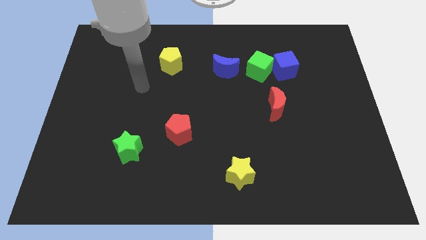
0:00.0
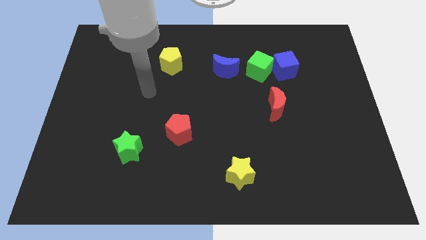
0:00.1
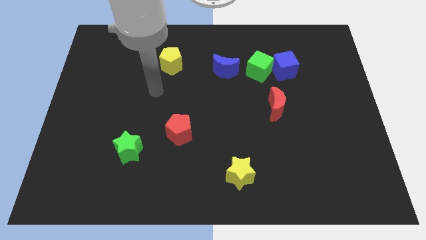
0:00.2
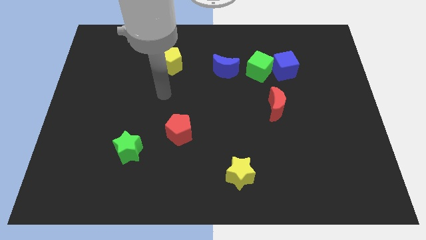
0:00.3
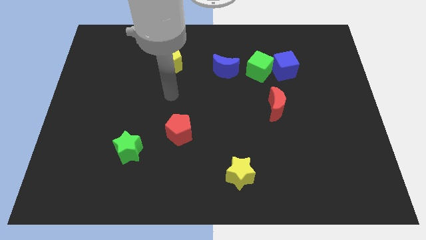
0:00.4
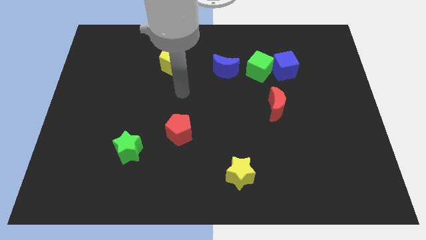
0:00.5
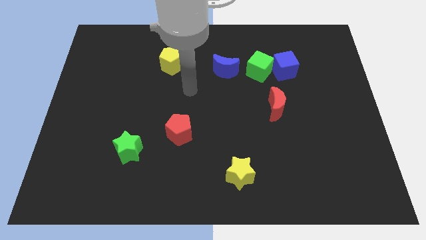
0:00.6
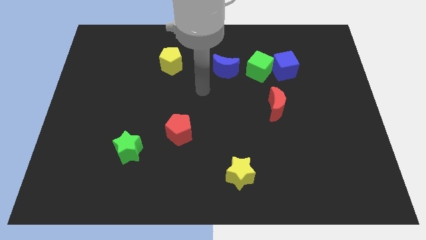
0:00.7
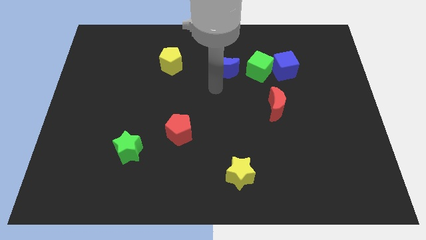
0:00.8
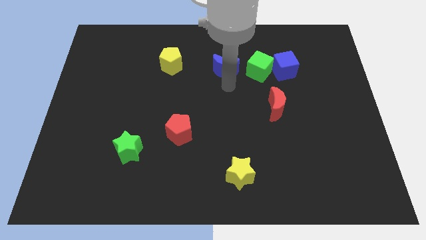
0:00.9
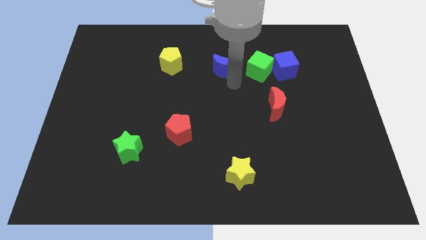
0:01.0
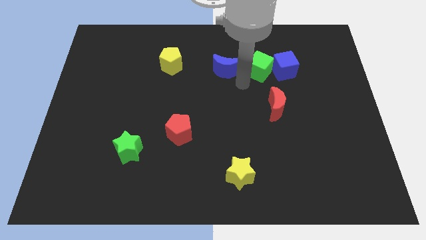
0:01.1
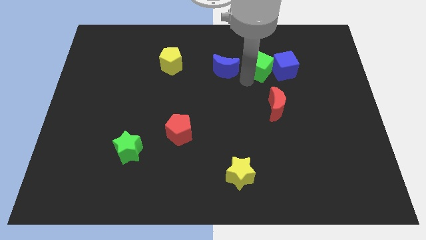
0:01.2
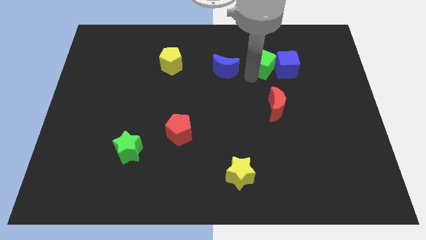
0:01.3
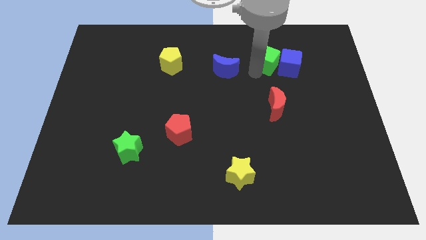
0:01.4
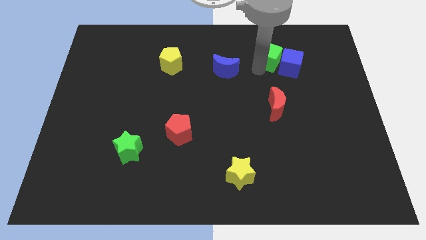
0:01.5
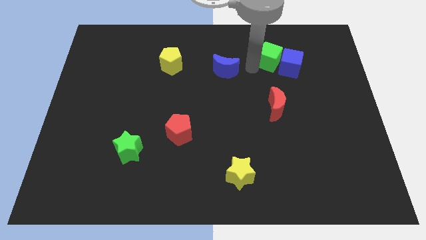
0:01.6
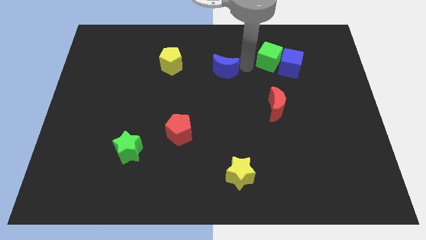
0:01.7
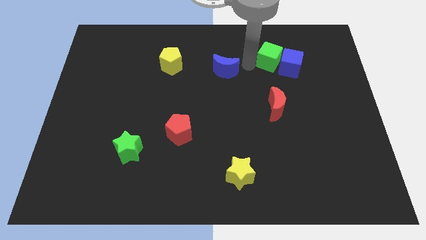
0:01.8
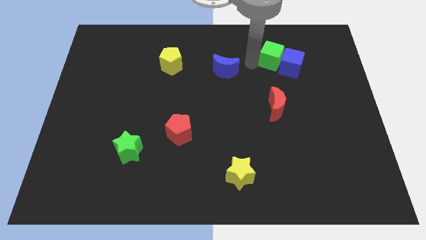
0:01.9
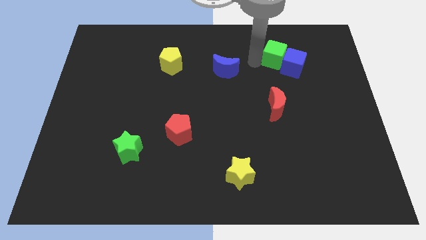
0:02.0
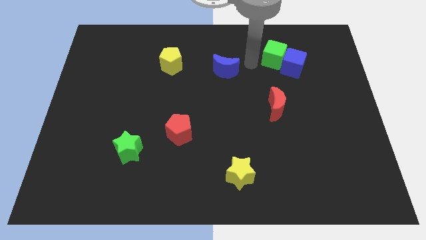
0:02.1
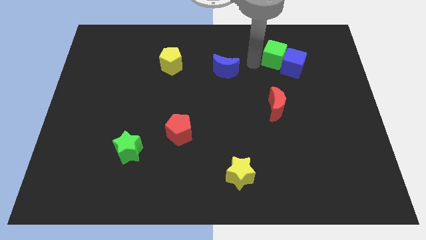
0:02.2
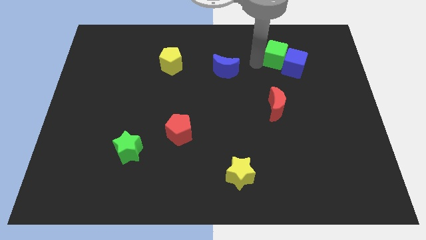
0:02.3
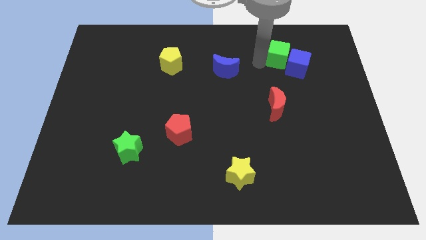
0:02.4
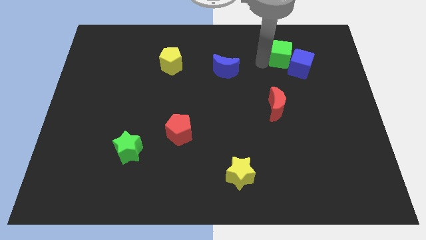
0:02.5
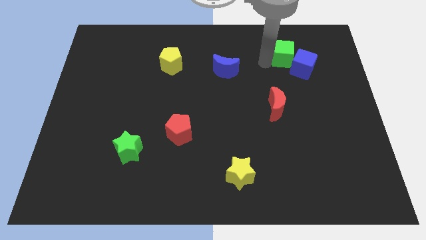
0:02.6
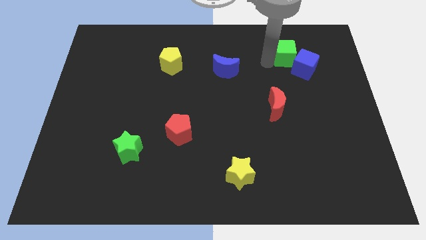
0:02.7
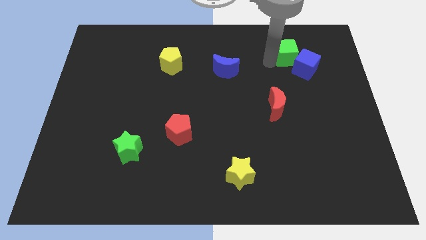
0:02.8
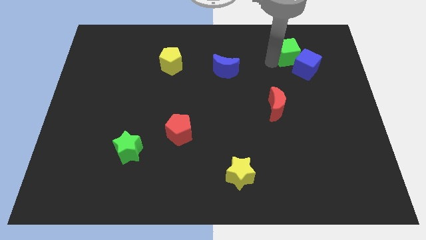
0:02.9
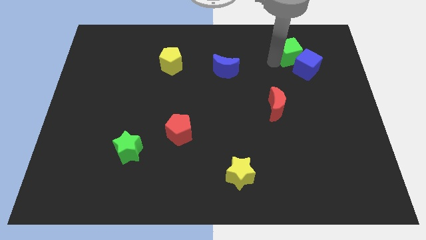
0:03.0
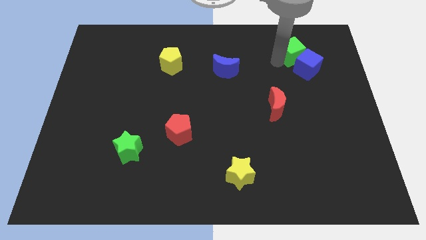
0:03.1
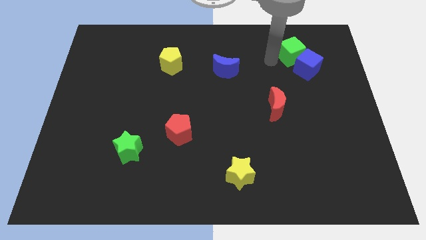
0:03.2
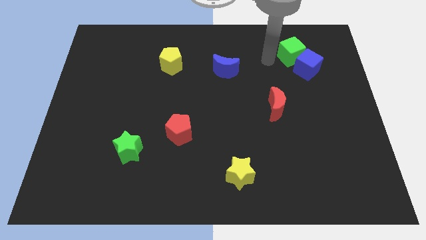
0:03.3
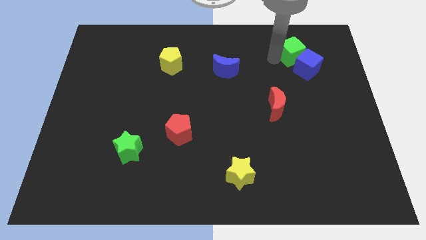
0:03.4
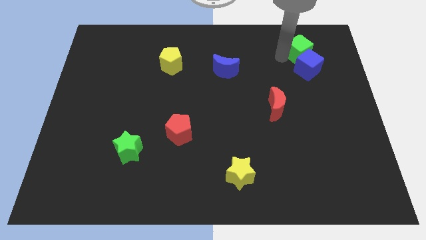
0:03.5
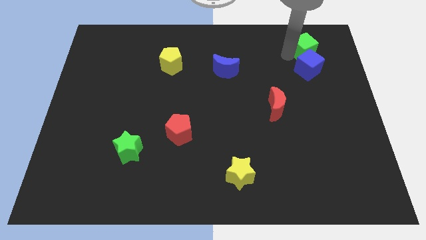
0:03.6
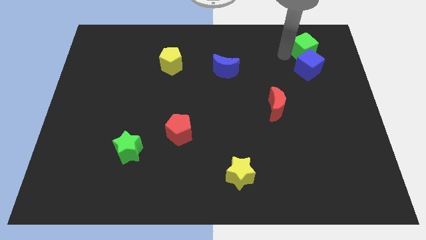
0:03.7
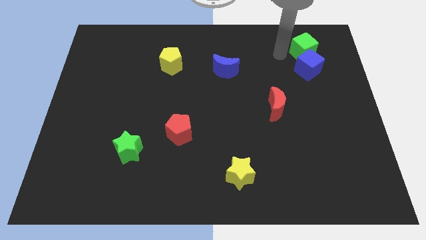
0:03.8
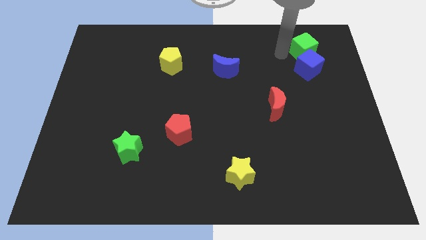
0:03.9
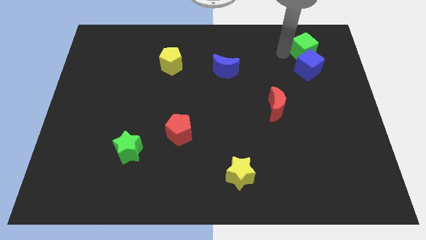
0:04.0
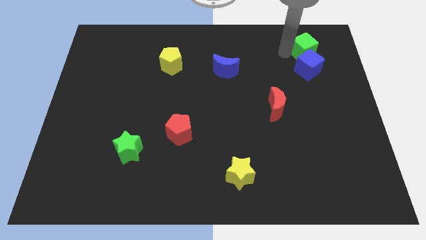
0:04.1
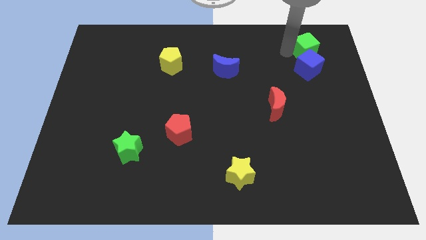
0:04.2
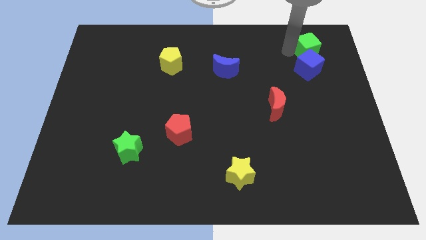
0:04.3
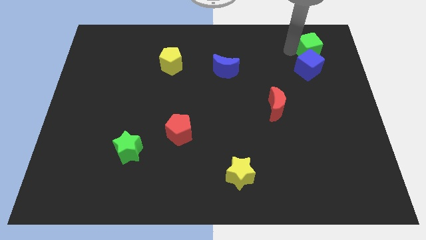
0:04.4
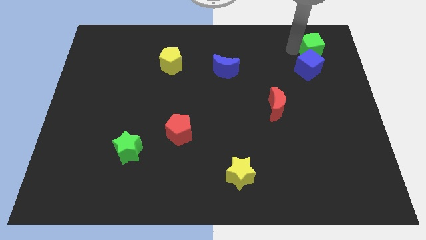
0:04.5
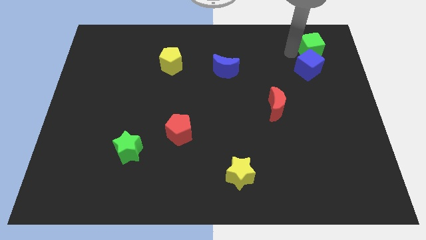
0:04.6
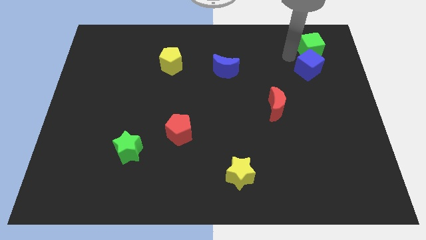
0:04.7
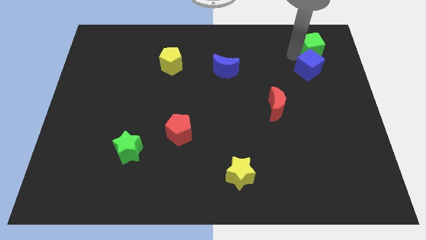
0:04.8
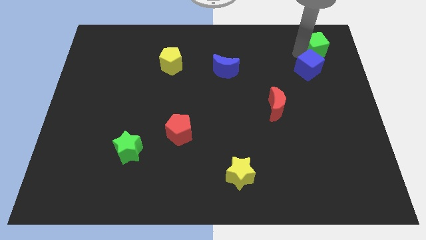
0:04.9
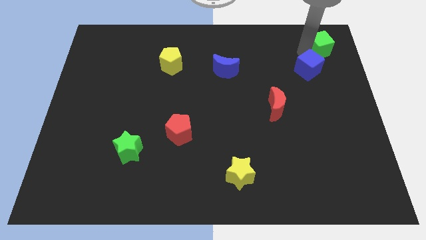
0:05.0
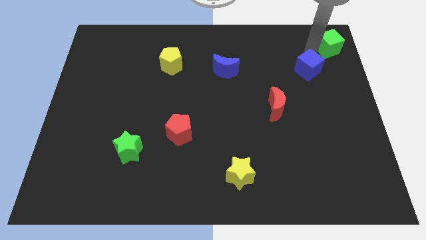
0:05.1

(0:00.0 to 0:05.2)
move the green cube to the top right corner

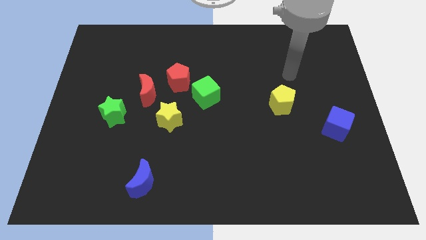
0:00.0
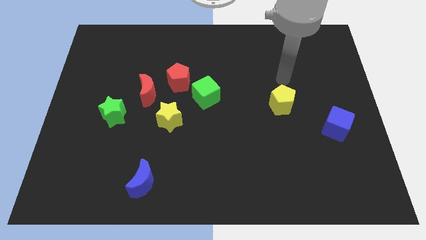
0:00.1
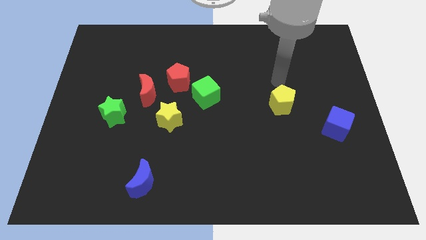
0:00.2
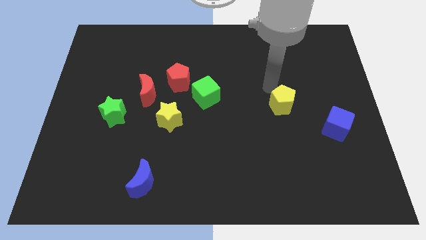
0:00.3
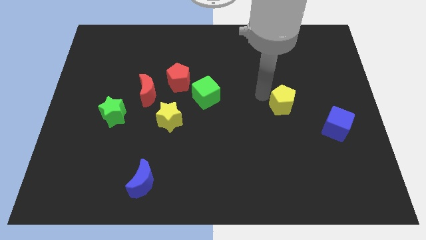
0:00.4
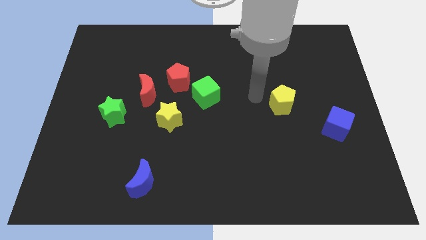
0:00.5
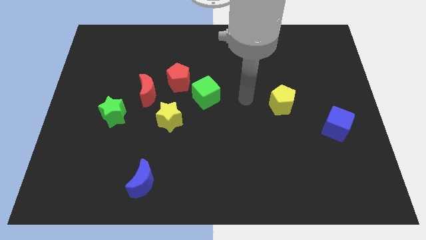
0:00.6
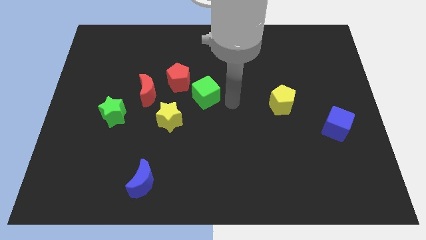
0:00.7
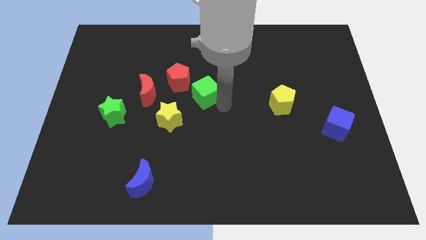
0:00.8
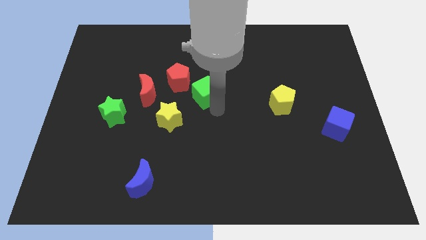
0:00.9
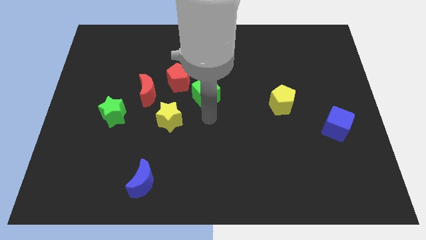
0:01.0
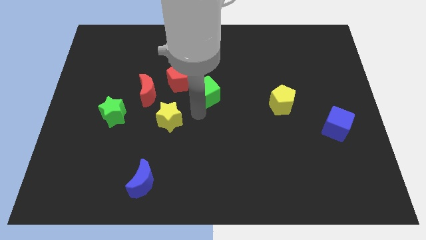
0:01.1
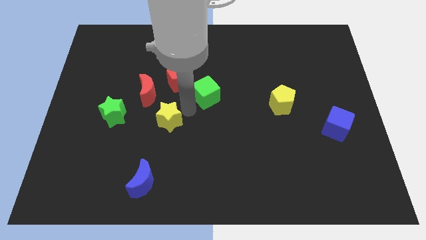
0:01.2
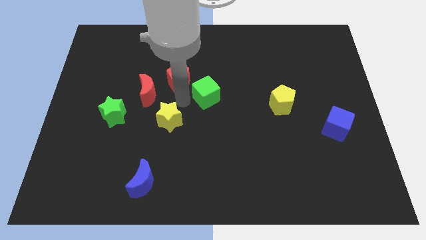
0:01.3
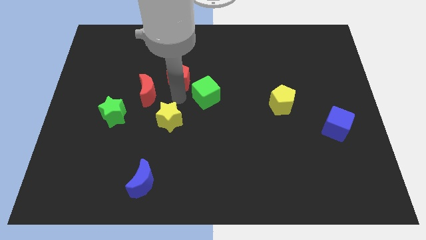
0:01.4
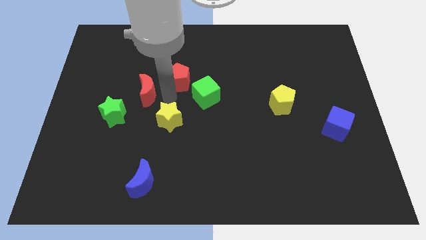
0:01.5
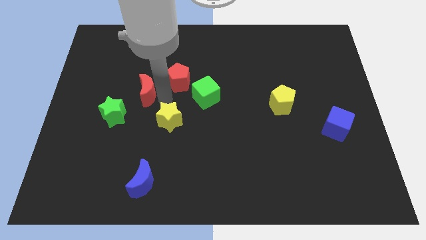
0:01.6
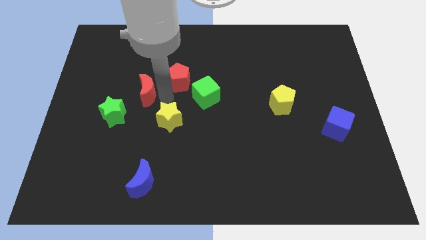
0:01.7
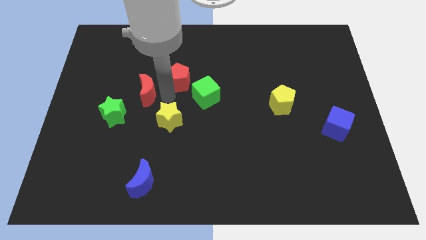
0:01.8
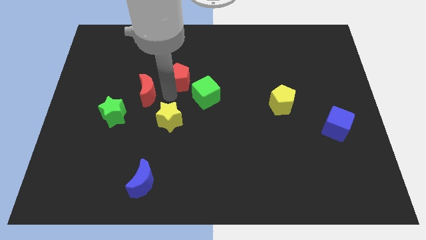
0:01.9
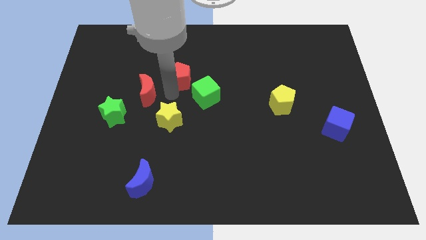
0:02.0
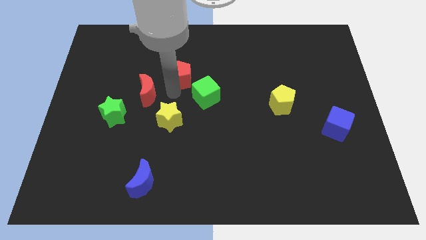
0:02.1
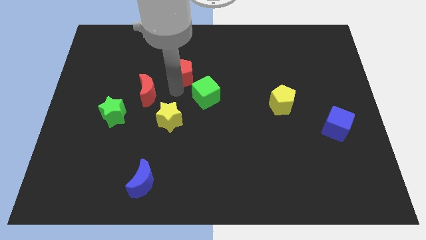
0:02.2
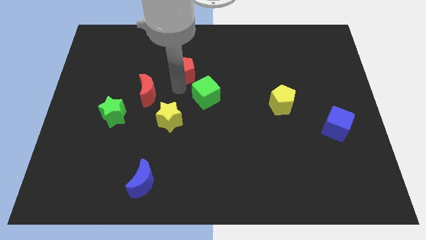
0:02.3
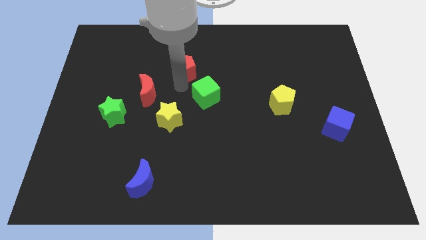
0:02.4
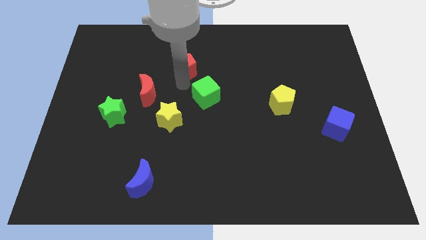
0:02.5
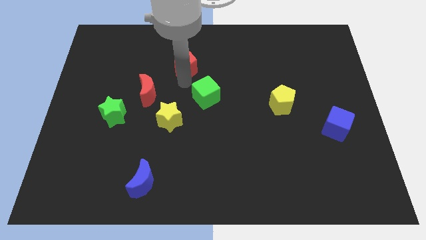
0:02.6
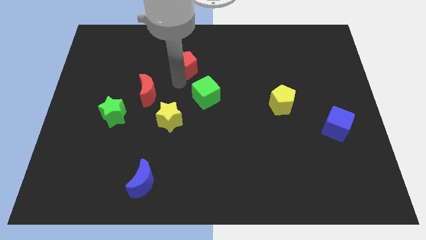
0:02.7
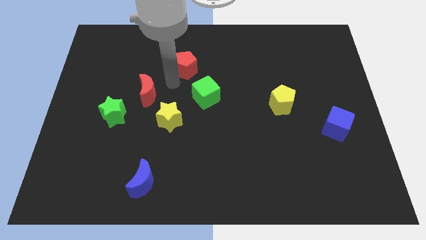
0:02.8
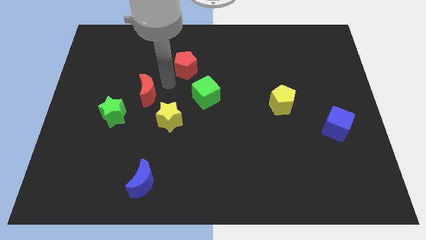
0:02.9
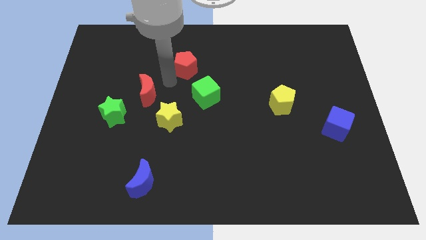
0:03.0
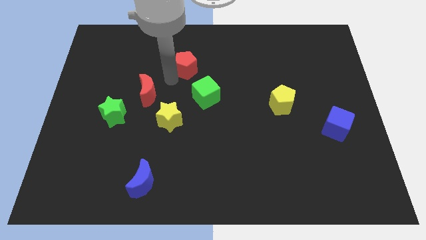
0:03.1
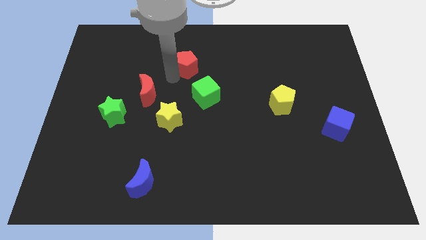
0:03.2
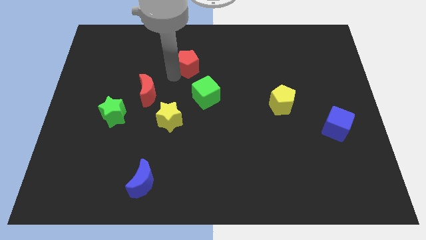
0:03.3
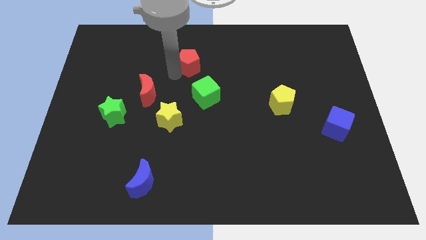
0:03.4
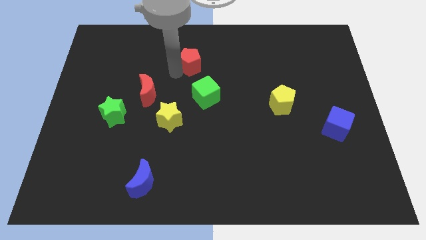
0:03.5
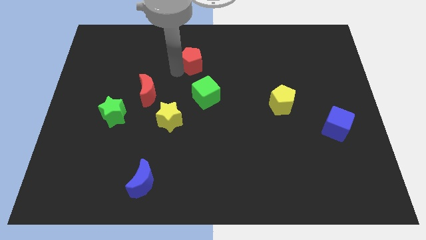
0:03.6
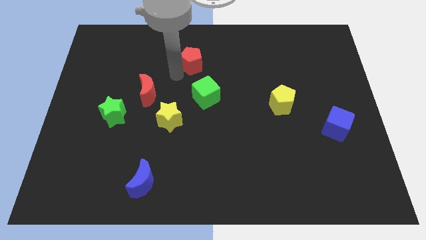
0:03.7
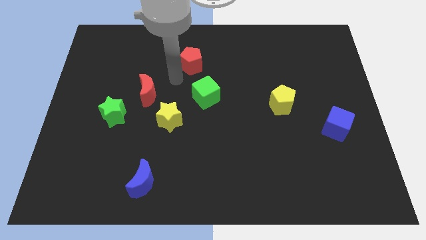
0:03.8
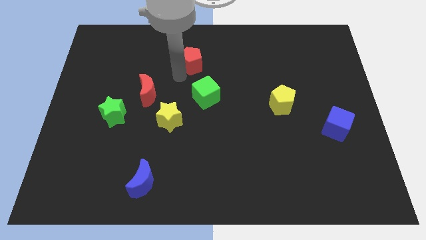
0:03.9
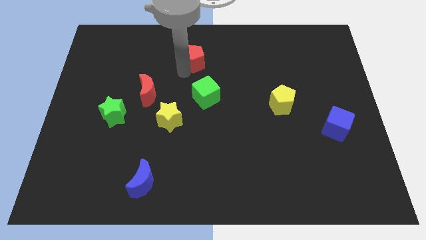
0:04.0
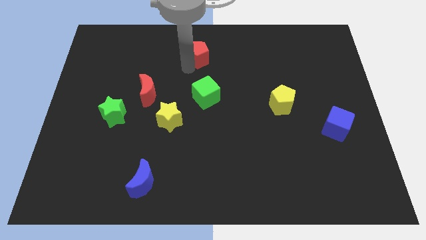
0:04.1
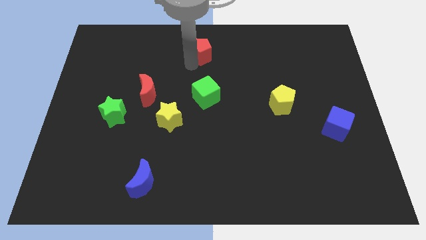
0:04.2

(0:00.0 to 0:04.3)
put the red pentagon to the top side
